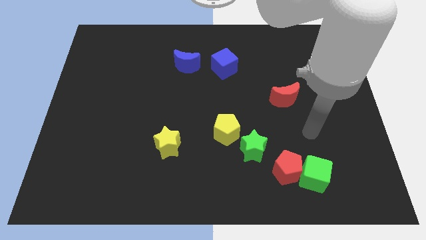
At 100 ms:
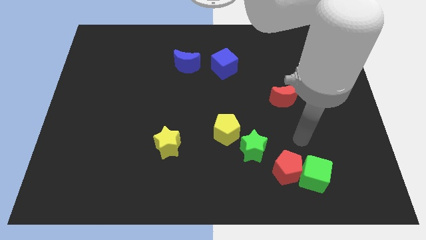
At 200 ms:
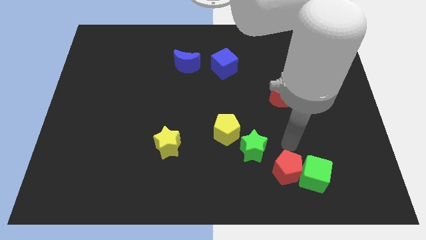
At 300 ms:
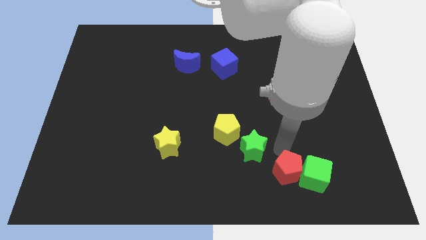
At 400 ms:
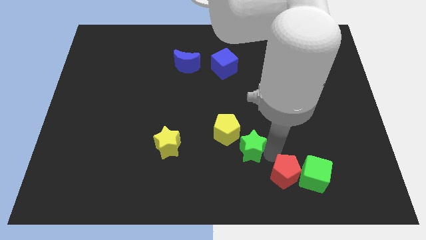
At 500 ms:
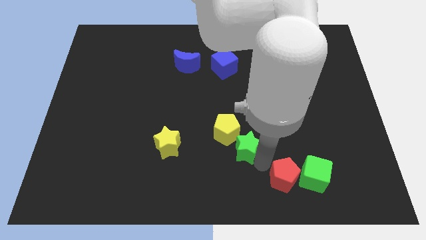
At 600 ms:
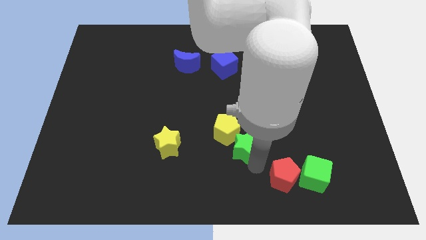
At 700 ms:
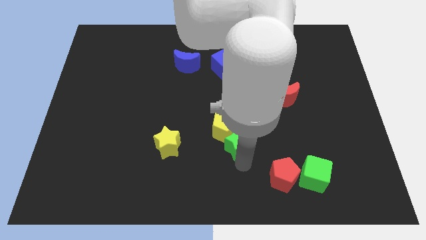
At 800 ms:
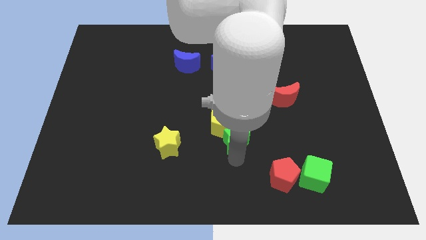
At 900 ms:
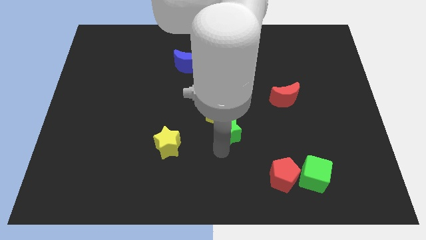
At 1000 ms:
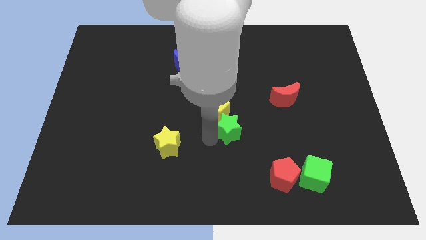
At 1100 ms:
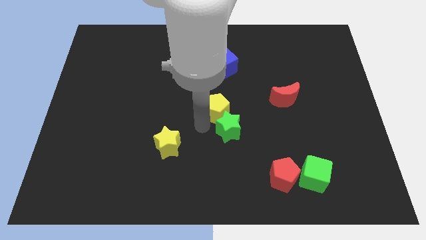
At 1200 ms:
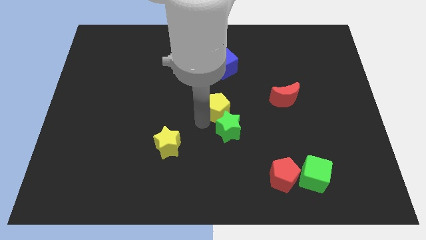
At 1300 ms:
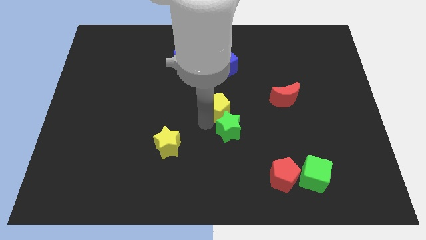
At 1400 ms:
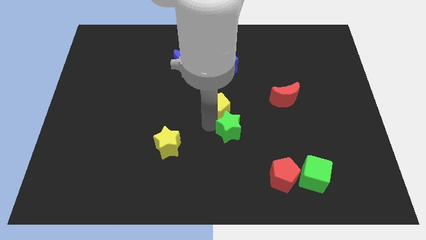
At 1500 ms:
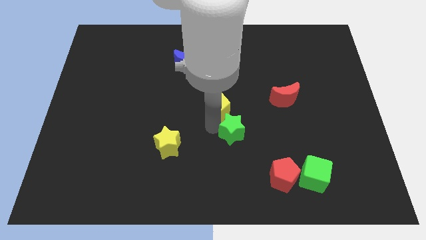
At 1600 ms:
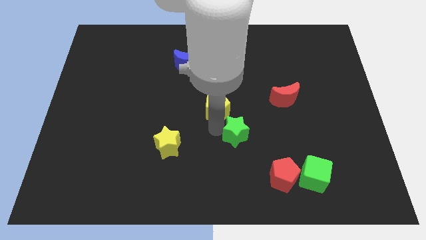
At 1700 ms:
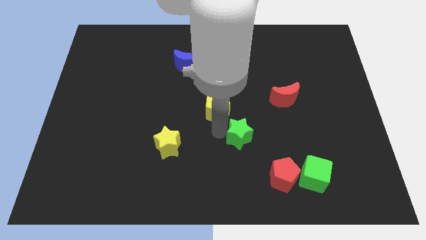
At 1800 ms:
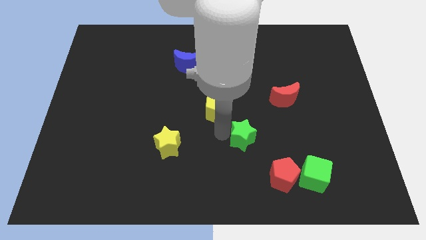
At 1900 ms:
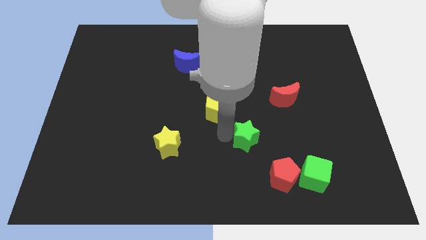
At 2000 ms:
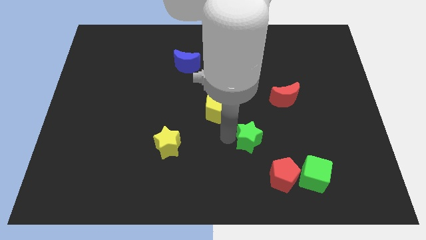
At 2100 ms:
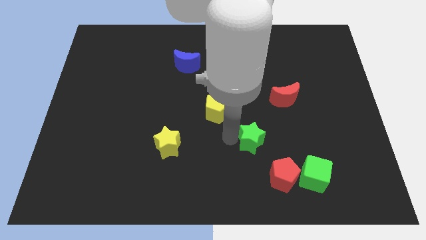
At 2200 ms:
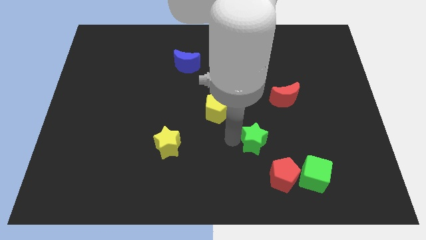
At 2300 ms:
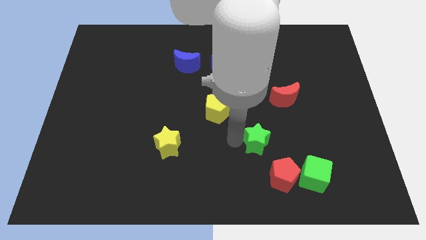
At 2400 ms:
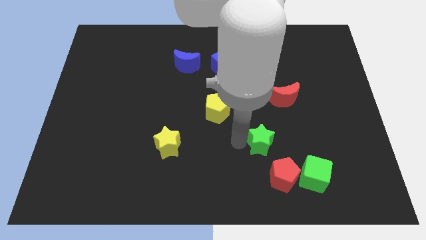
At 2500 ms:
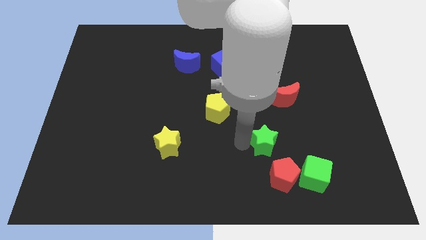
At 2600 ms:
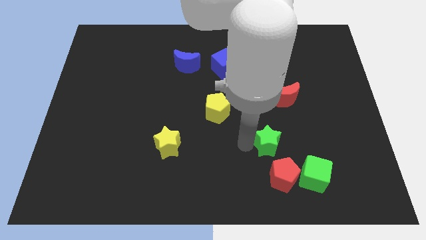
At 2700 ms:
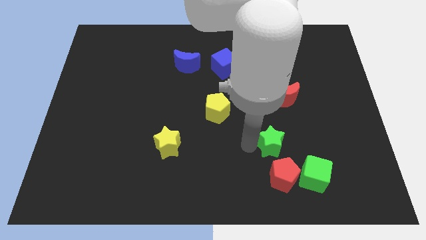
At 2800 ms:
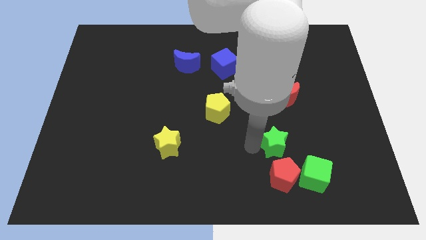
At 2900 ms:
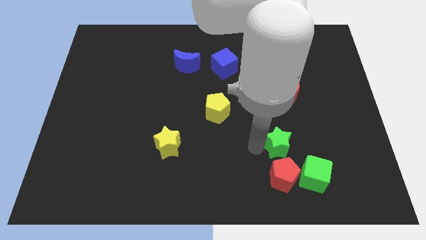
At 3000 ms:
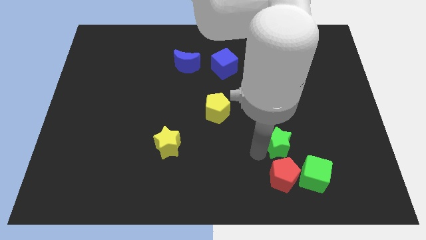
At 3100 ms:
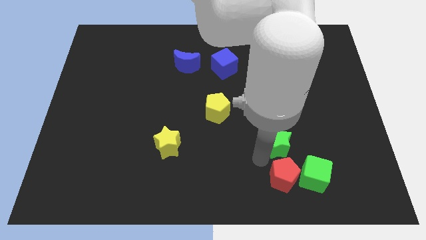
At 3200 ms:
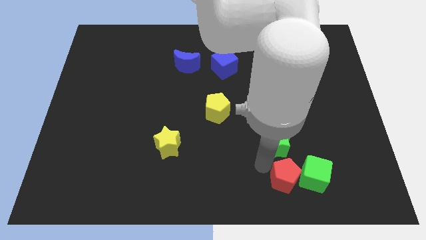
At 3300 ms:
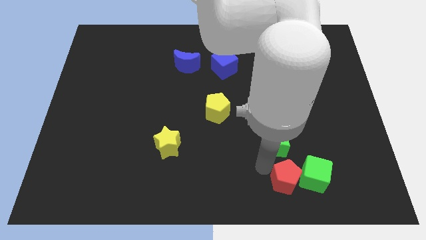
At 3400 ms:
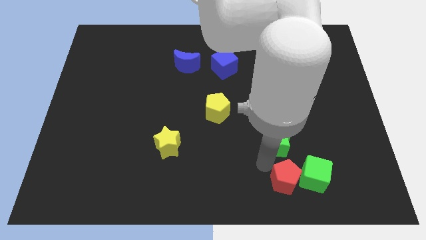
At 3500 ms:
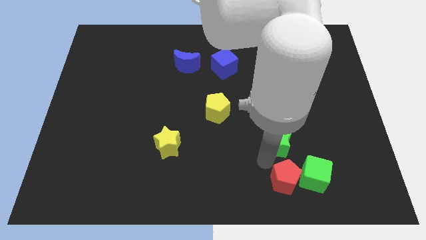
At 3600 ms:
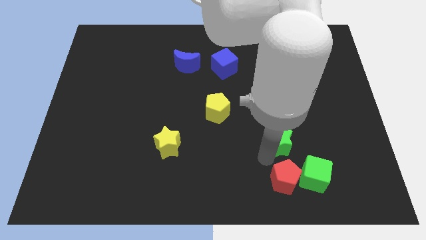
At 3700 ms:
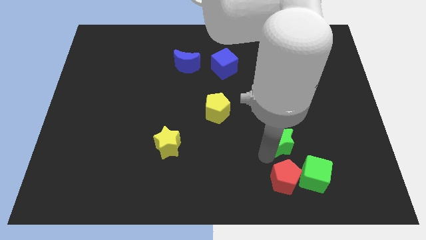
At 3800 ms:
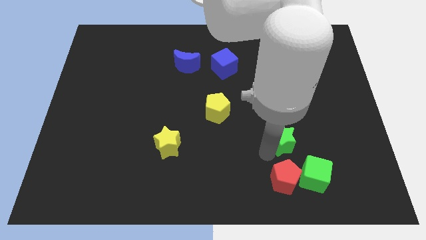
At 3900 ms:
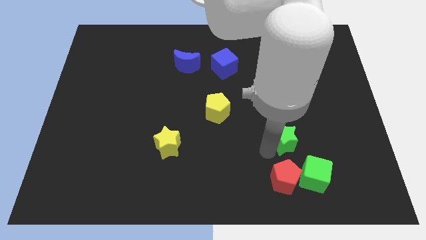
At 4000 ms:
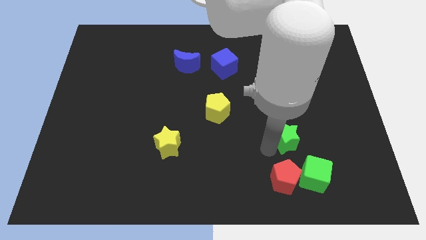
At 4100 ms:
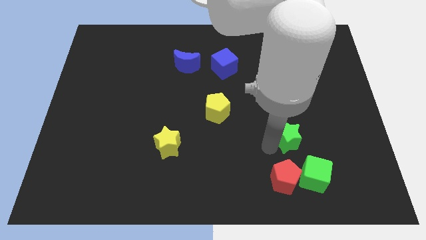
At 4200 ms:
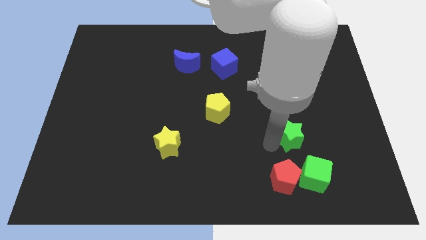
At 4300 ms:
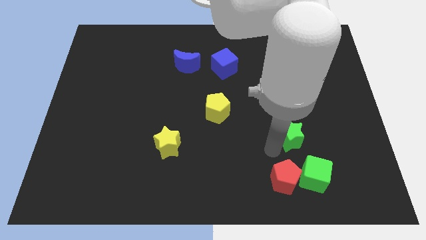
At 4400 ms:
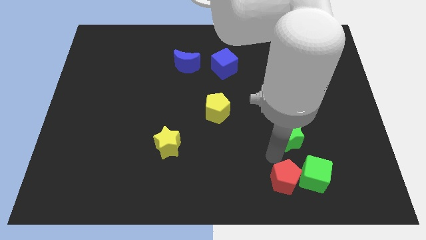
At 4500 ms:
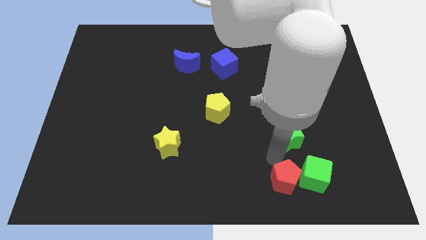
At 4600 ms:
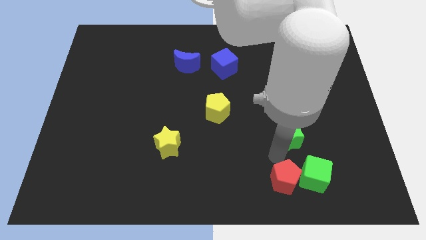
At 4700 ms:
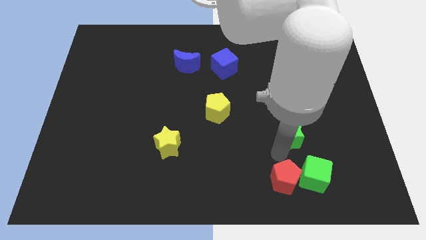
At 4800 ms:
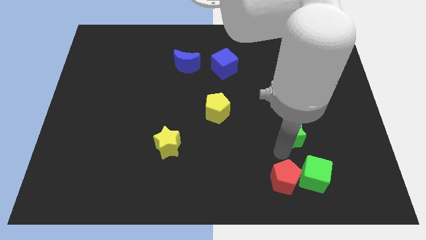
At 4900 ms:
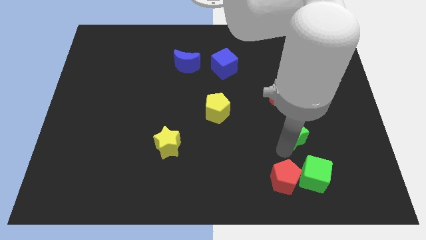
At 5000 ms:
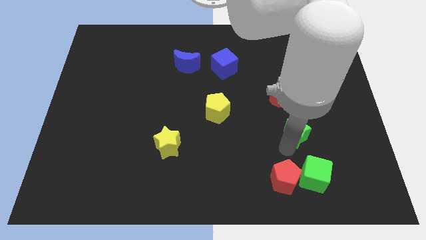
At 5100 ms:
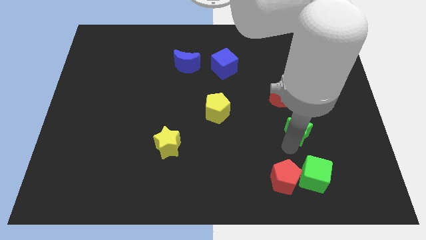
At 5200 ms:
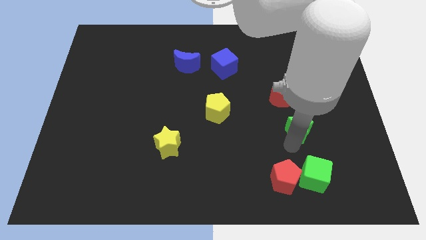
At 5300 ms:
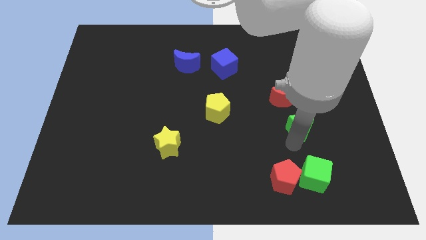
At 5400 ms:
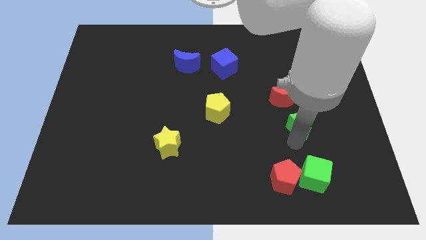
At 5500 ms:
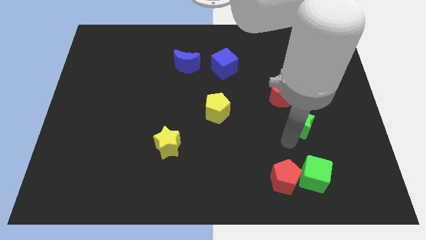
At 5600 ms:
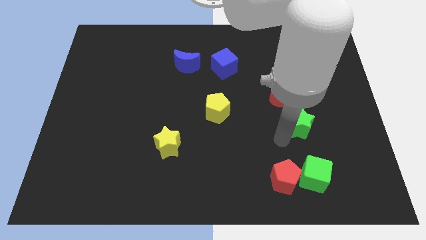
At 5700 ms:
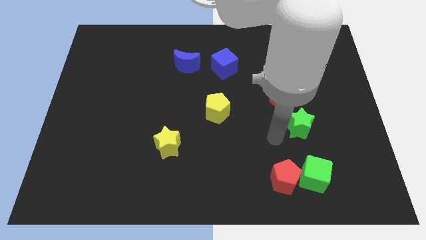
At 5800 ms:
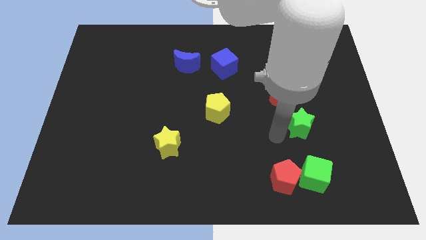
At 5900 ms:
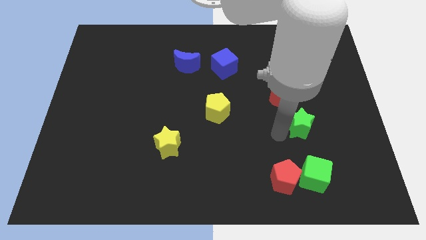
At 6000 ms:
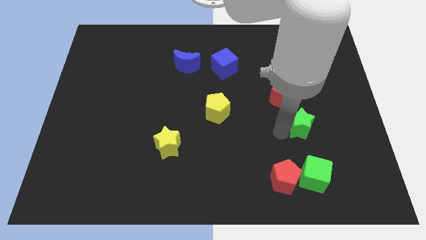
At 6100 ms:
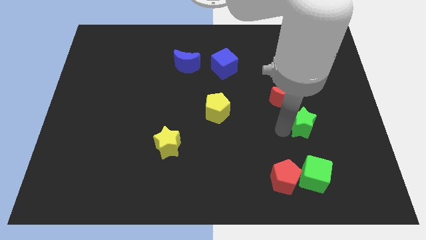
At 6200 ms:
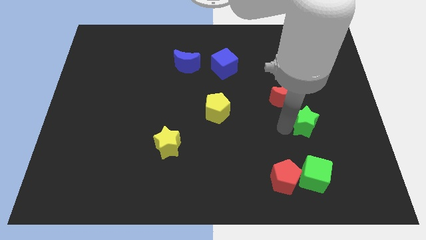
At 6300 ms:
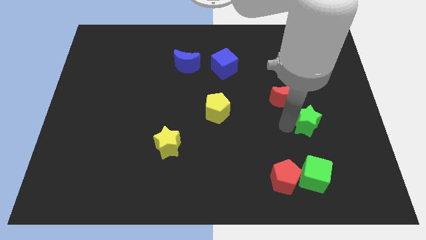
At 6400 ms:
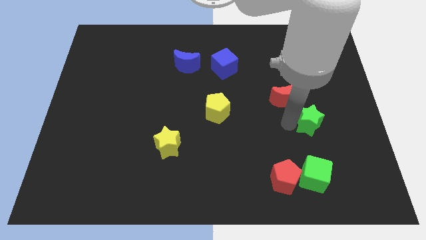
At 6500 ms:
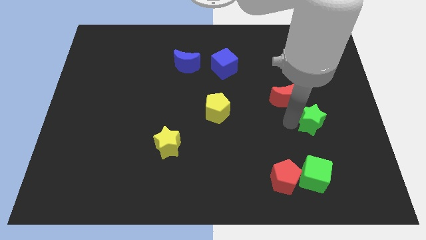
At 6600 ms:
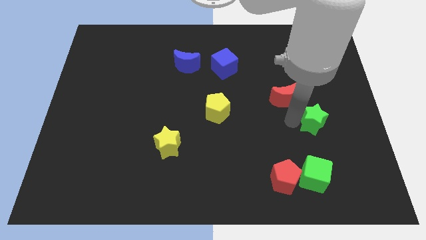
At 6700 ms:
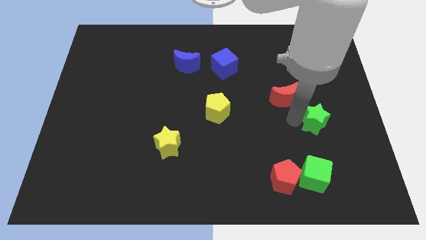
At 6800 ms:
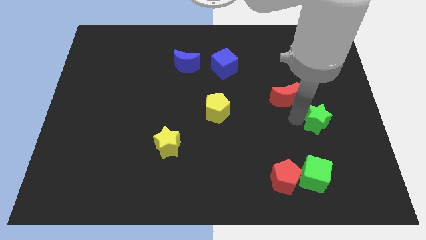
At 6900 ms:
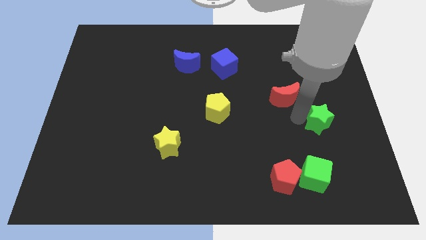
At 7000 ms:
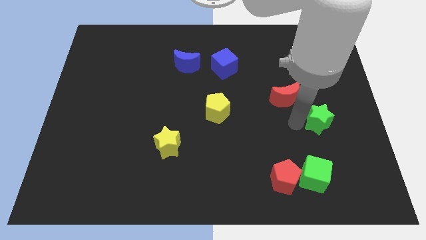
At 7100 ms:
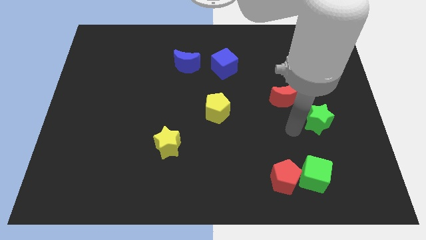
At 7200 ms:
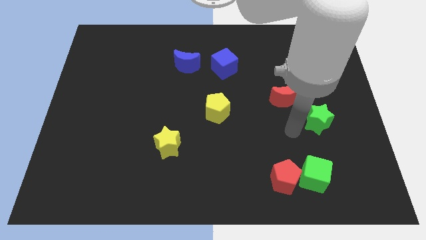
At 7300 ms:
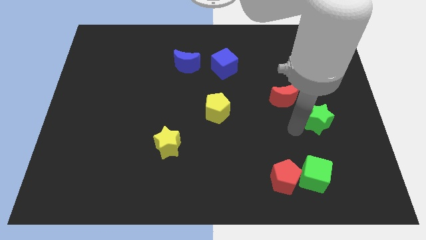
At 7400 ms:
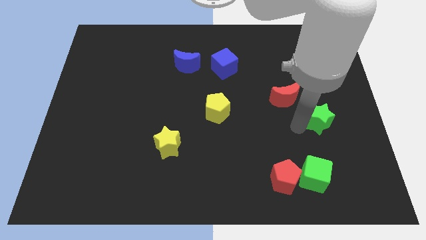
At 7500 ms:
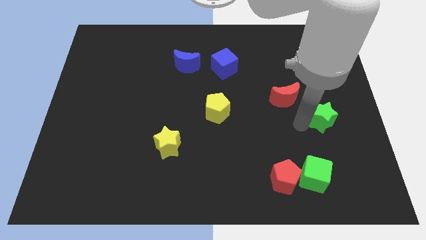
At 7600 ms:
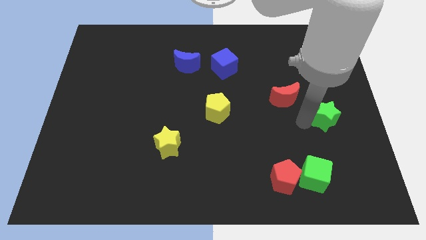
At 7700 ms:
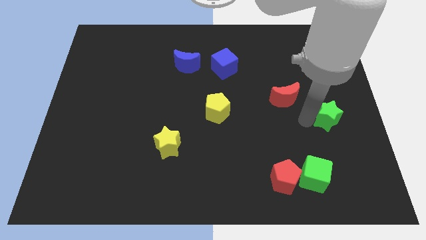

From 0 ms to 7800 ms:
move the green star to the right side of the board
